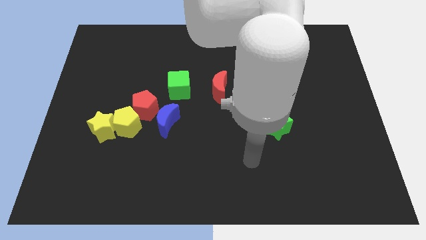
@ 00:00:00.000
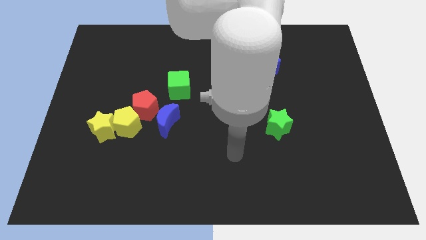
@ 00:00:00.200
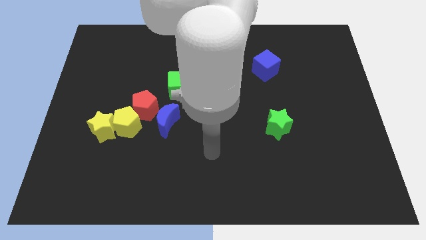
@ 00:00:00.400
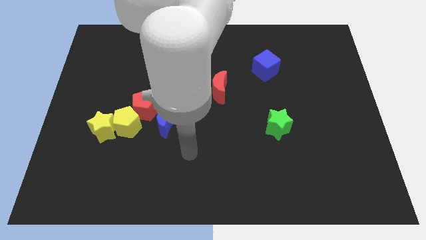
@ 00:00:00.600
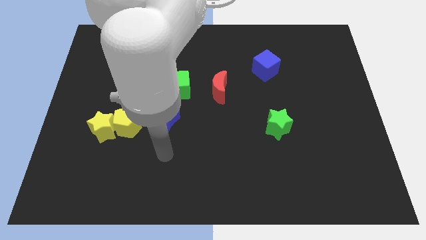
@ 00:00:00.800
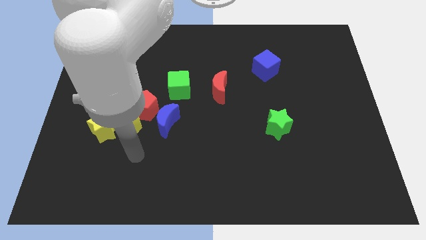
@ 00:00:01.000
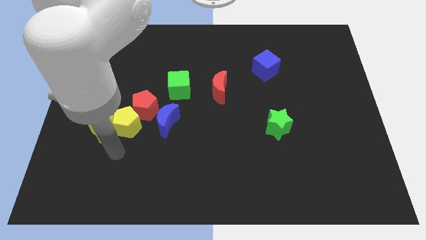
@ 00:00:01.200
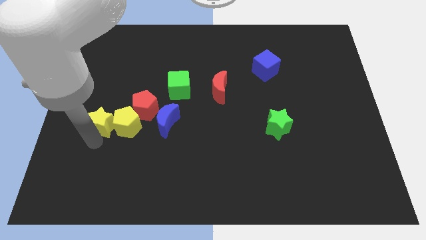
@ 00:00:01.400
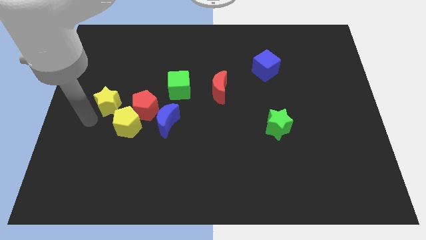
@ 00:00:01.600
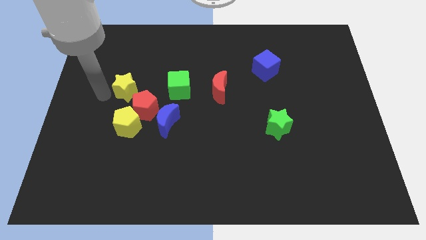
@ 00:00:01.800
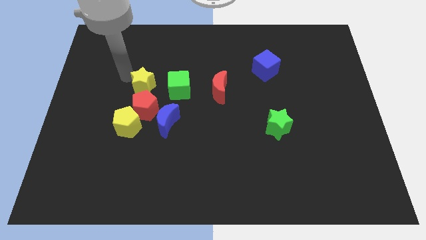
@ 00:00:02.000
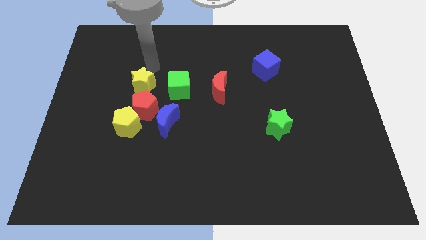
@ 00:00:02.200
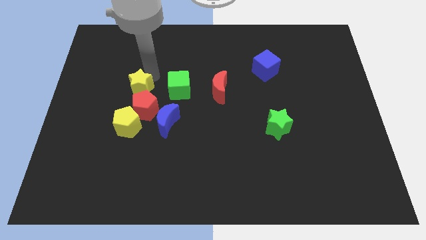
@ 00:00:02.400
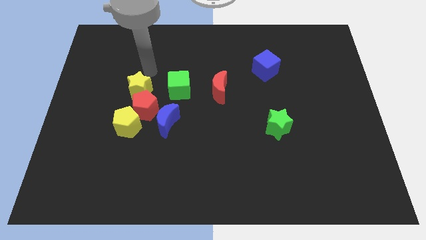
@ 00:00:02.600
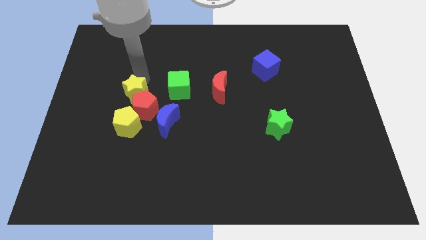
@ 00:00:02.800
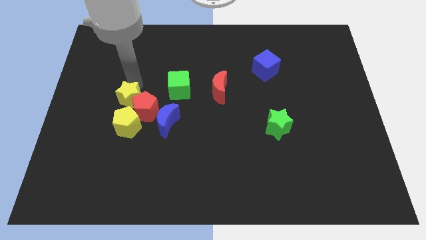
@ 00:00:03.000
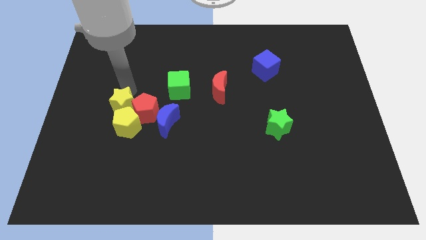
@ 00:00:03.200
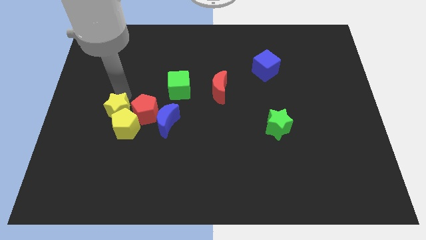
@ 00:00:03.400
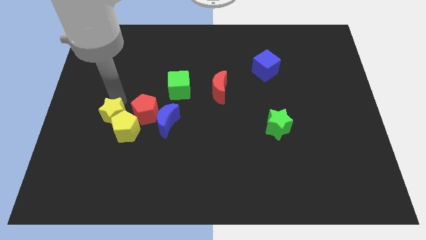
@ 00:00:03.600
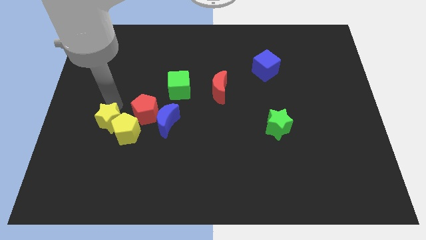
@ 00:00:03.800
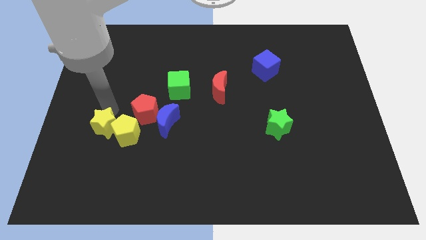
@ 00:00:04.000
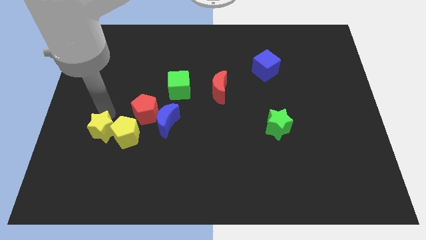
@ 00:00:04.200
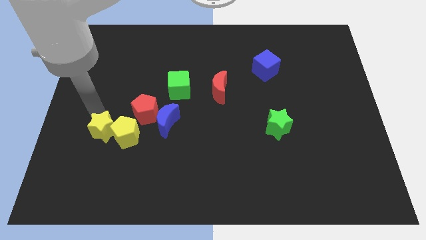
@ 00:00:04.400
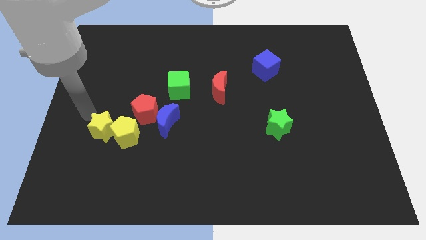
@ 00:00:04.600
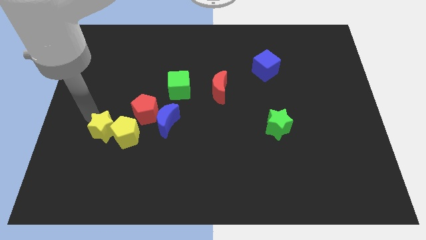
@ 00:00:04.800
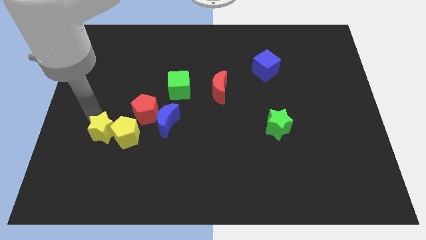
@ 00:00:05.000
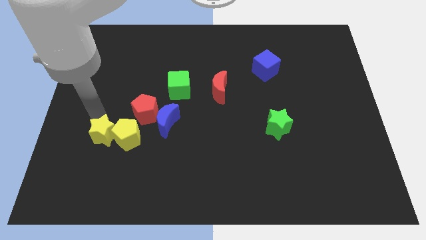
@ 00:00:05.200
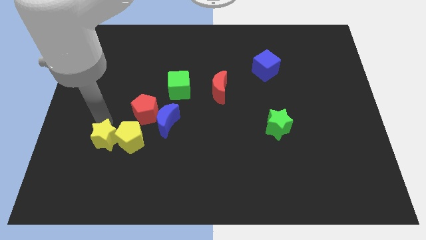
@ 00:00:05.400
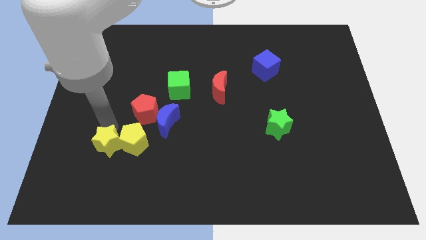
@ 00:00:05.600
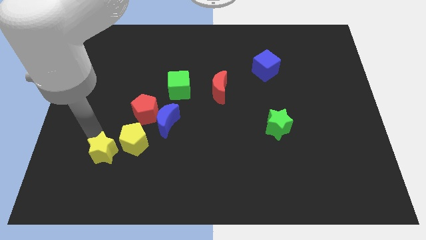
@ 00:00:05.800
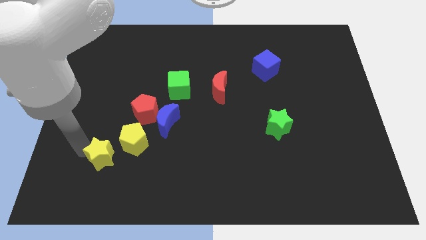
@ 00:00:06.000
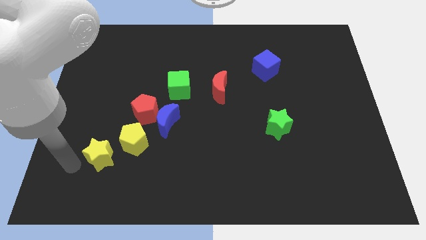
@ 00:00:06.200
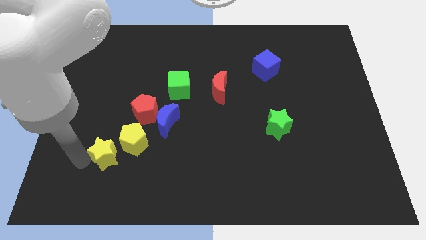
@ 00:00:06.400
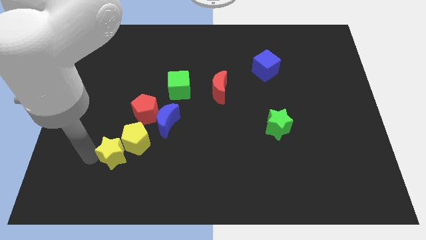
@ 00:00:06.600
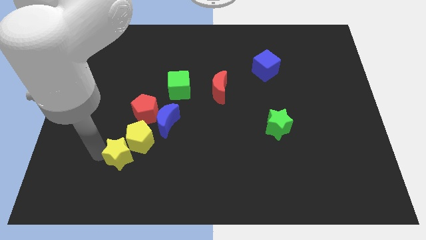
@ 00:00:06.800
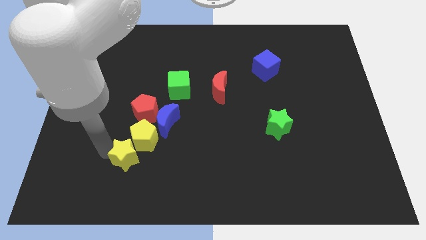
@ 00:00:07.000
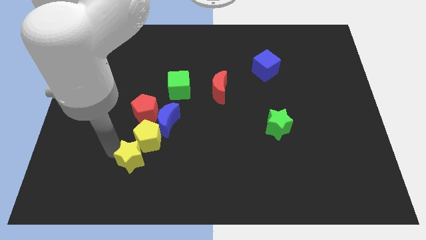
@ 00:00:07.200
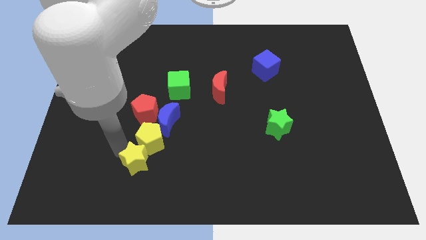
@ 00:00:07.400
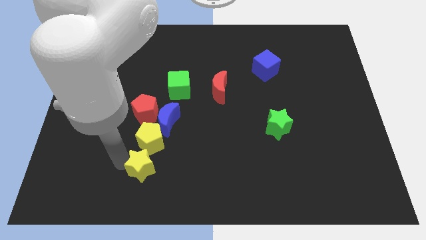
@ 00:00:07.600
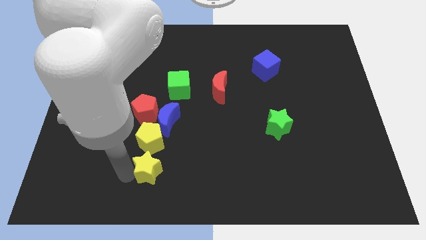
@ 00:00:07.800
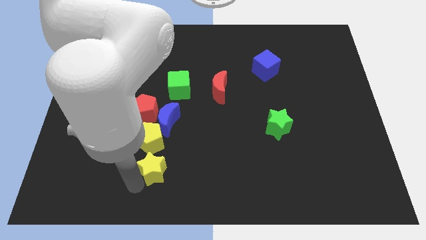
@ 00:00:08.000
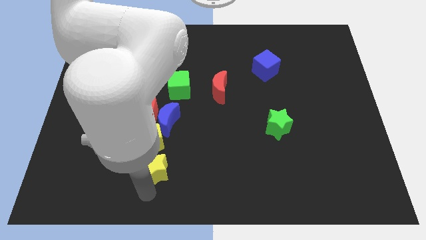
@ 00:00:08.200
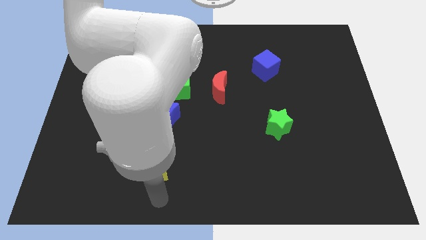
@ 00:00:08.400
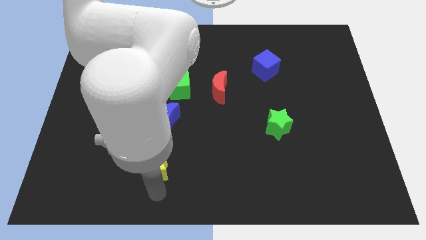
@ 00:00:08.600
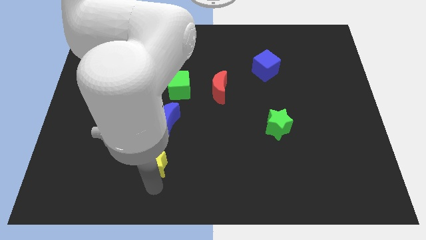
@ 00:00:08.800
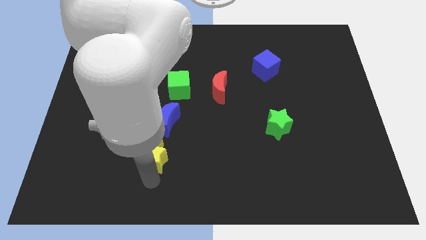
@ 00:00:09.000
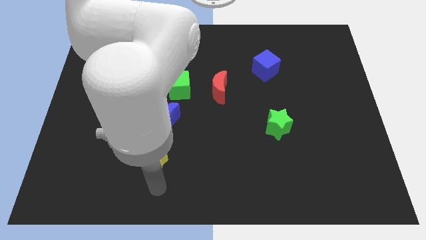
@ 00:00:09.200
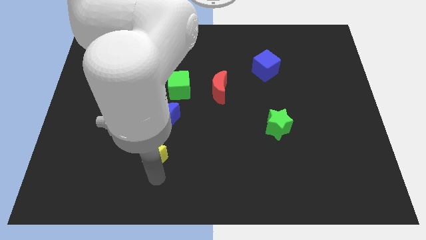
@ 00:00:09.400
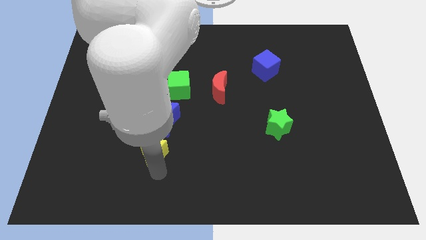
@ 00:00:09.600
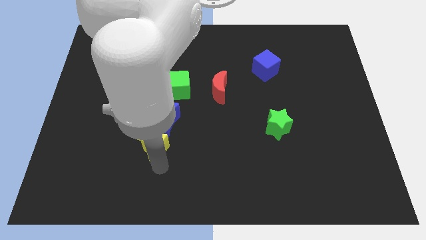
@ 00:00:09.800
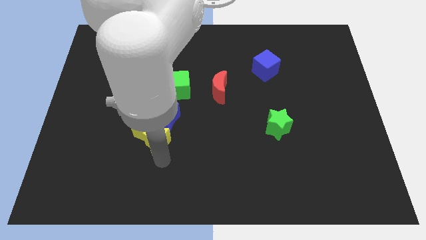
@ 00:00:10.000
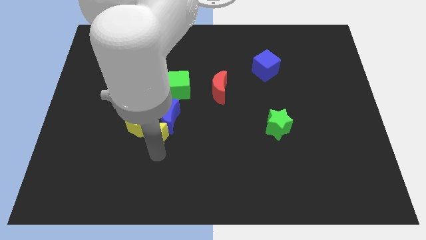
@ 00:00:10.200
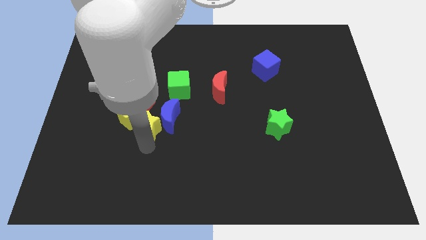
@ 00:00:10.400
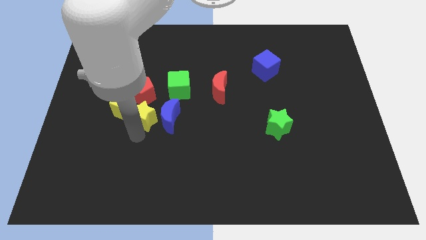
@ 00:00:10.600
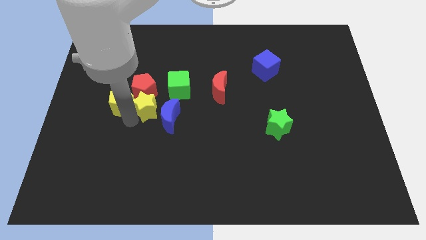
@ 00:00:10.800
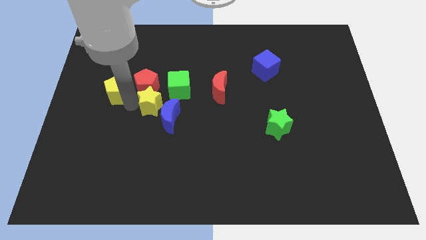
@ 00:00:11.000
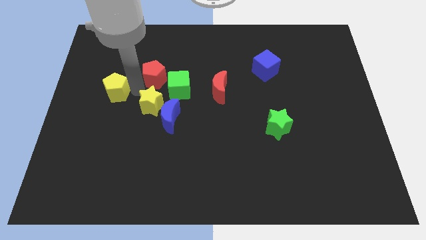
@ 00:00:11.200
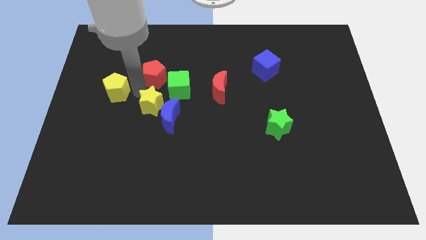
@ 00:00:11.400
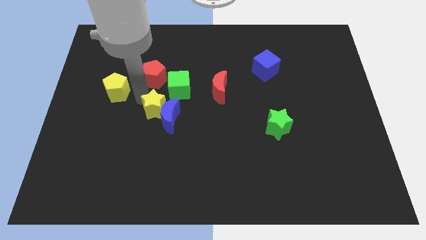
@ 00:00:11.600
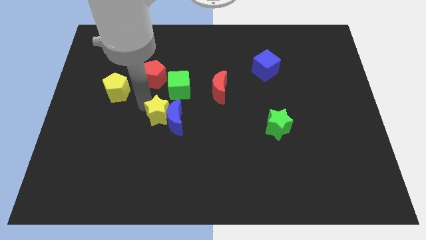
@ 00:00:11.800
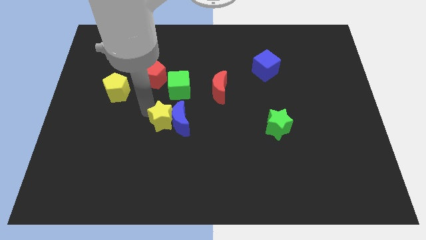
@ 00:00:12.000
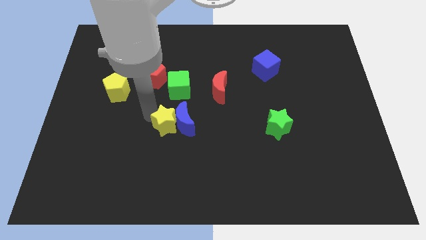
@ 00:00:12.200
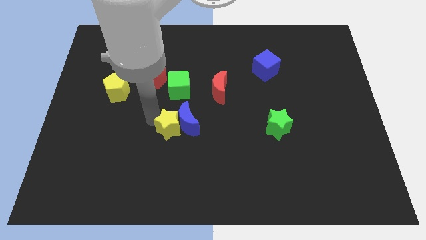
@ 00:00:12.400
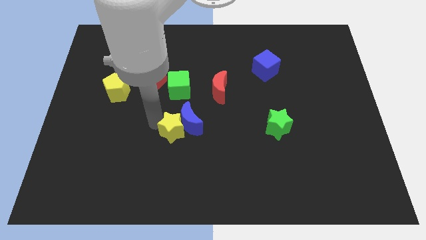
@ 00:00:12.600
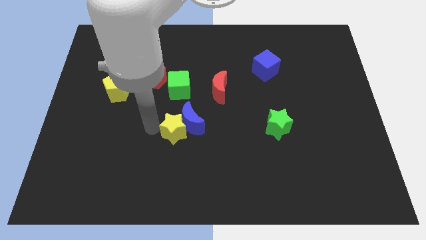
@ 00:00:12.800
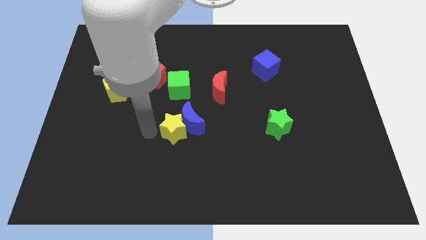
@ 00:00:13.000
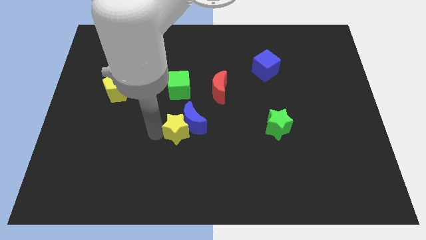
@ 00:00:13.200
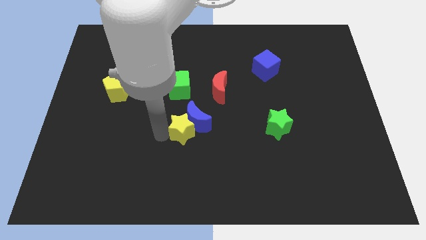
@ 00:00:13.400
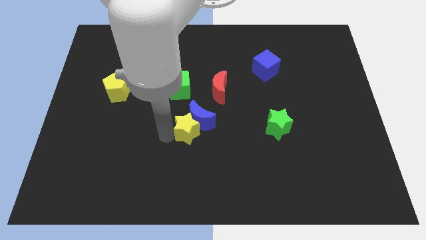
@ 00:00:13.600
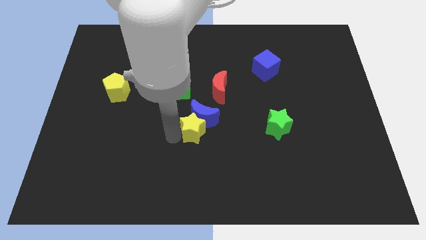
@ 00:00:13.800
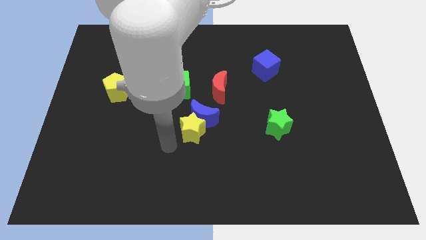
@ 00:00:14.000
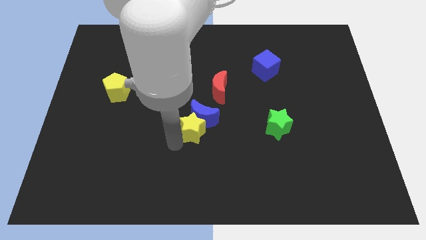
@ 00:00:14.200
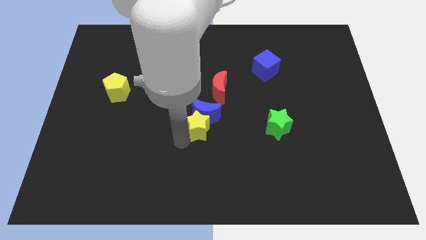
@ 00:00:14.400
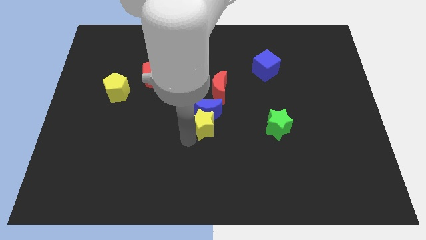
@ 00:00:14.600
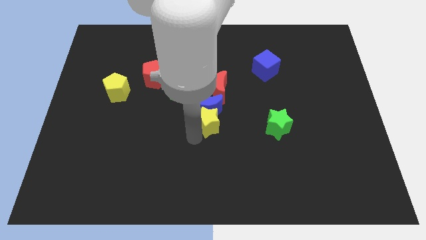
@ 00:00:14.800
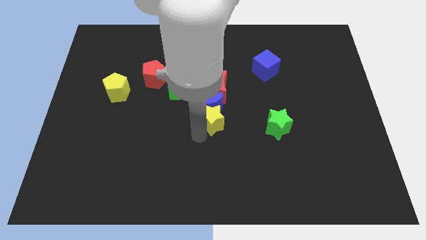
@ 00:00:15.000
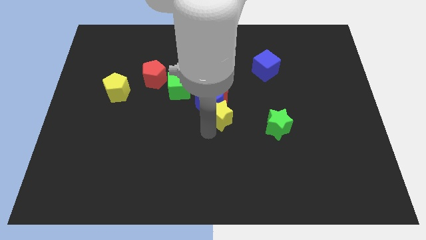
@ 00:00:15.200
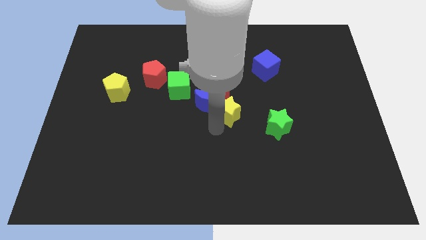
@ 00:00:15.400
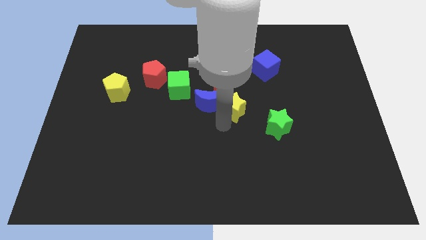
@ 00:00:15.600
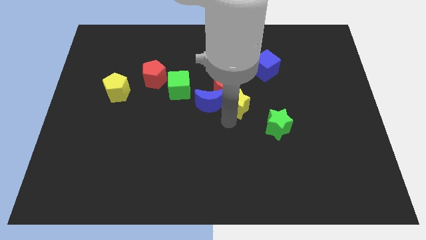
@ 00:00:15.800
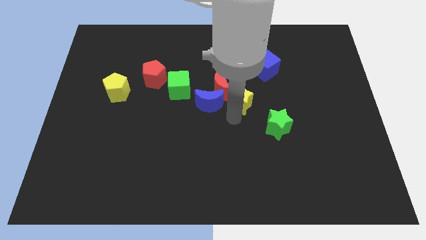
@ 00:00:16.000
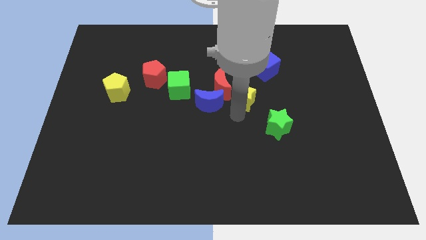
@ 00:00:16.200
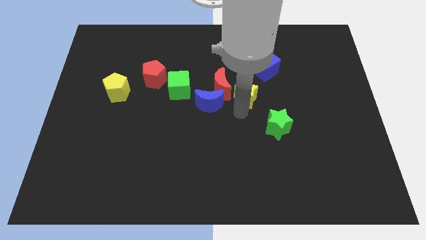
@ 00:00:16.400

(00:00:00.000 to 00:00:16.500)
slide the yellow star to the right of the green cube
